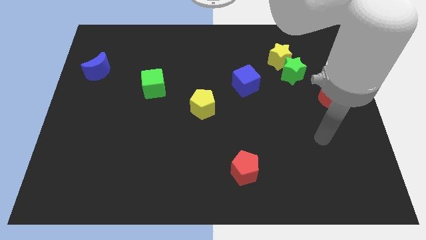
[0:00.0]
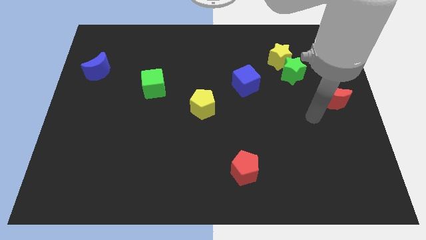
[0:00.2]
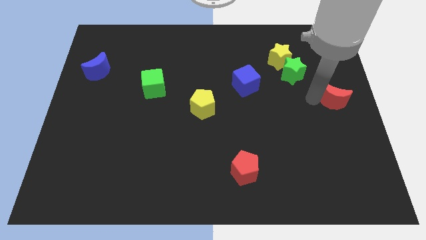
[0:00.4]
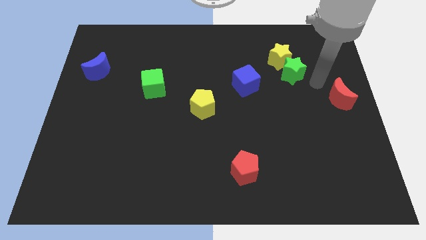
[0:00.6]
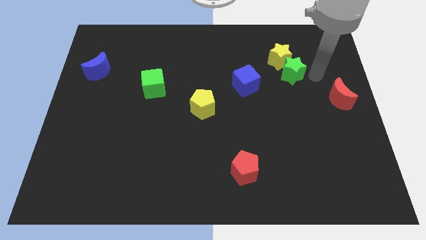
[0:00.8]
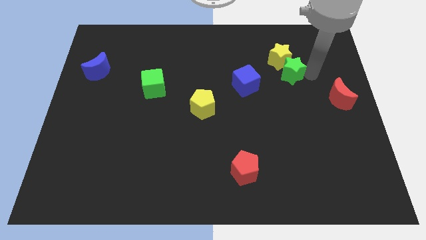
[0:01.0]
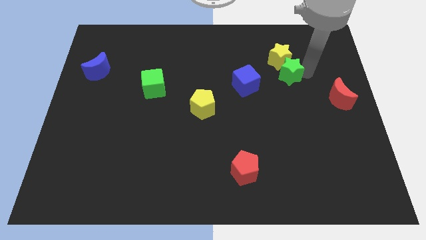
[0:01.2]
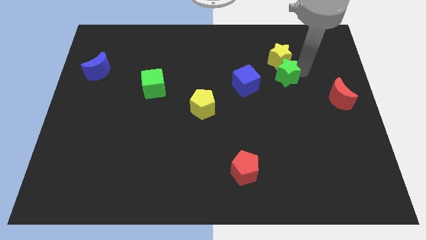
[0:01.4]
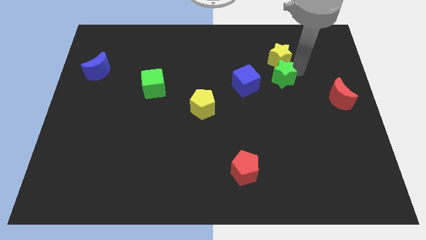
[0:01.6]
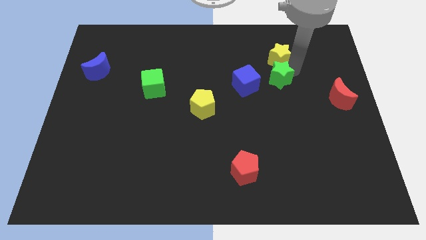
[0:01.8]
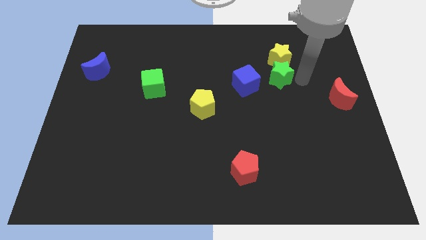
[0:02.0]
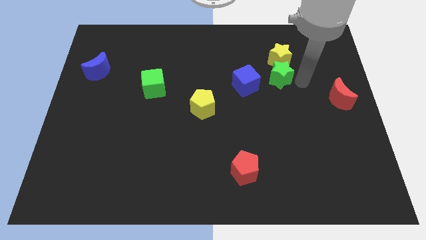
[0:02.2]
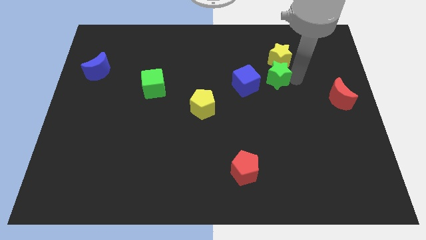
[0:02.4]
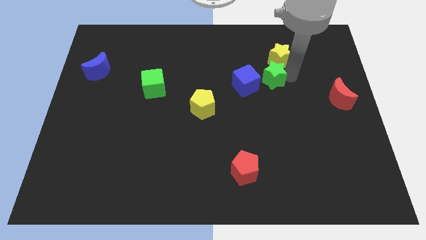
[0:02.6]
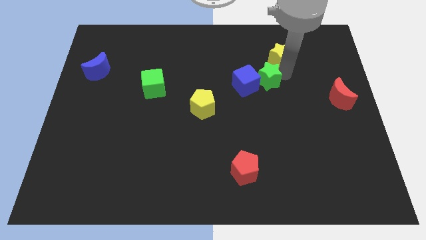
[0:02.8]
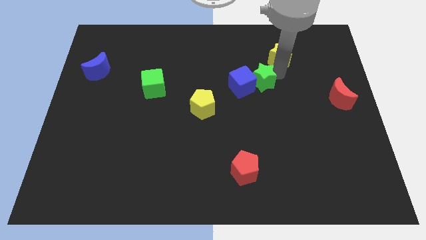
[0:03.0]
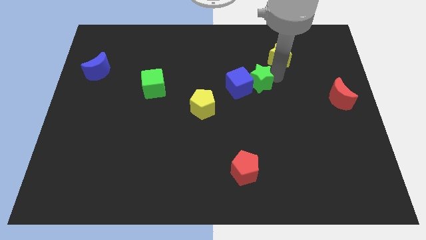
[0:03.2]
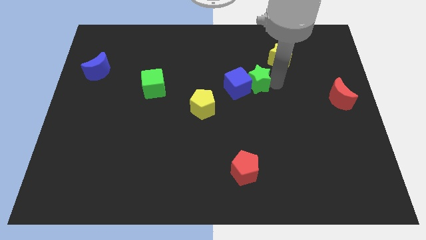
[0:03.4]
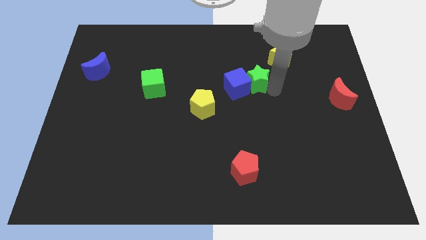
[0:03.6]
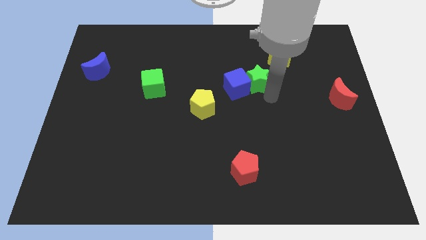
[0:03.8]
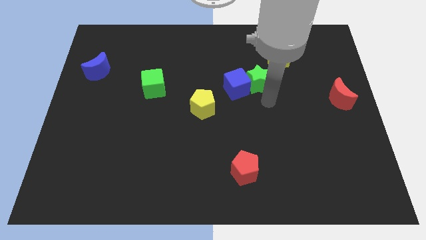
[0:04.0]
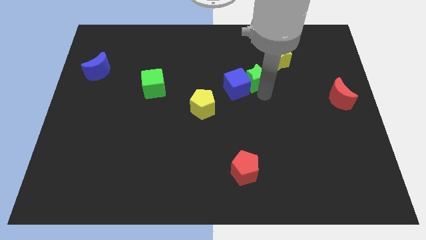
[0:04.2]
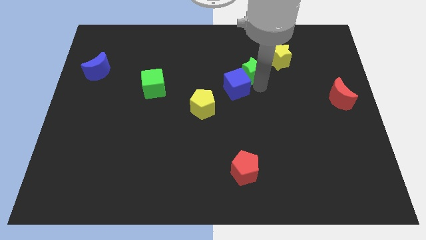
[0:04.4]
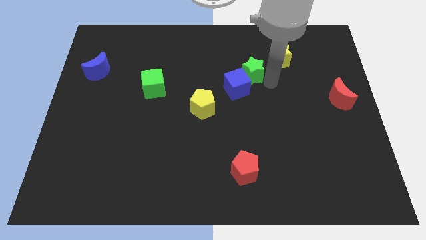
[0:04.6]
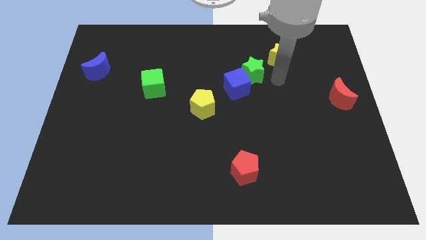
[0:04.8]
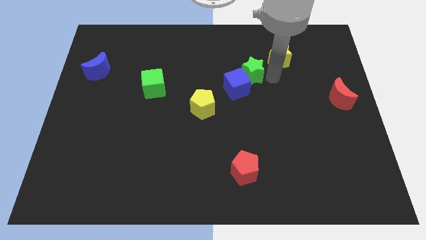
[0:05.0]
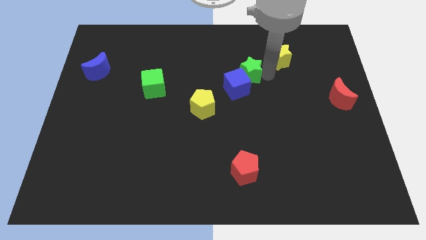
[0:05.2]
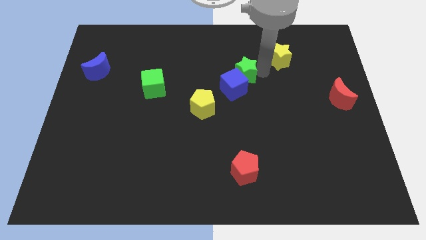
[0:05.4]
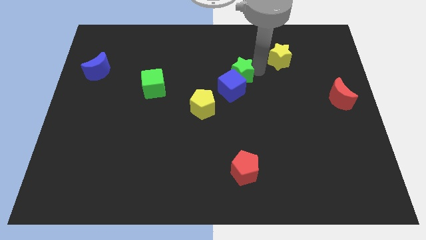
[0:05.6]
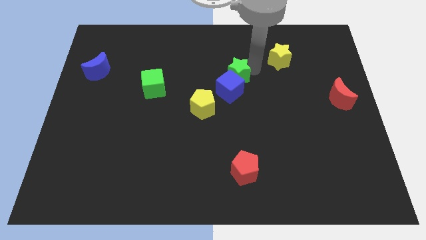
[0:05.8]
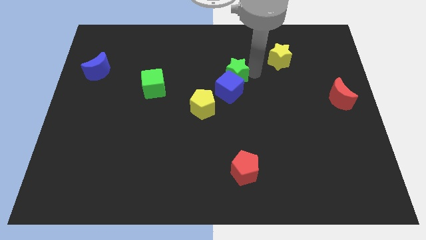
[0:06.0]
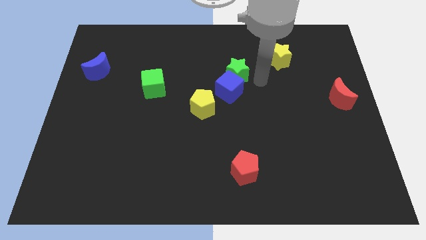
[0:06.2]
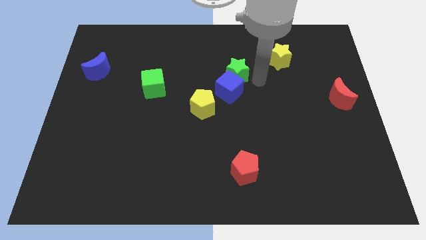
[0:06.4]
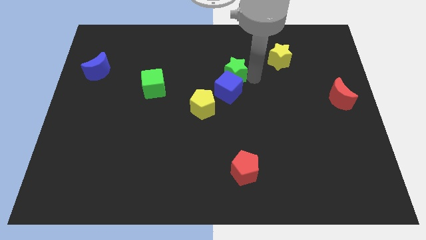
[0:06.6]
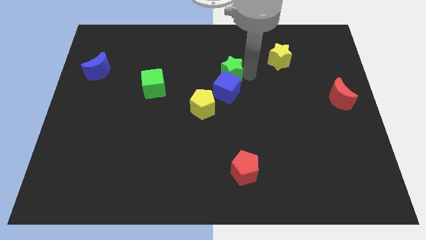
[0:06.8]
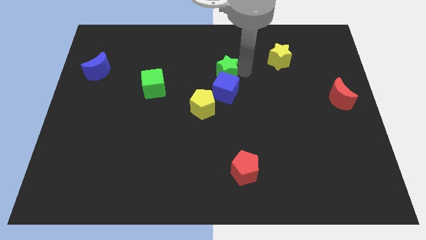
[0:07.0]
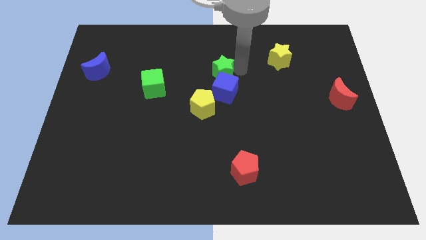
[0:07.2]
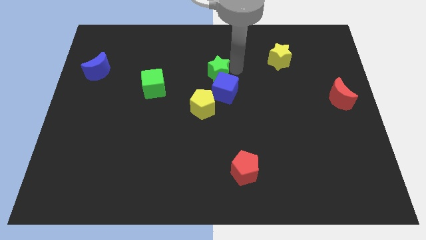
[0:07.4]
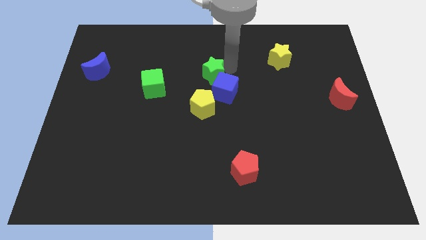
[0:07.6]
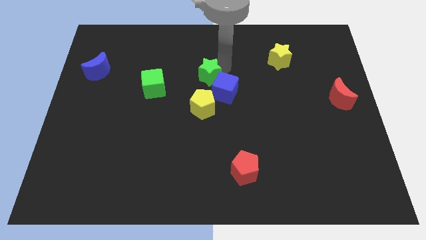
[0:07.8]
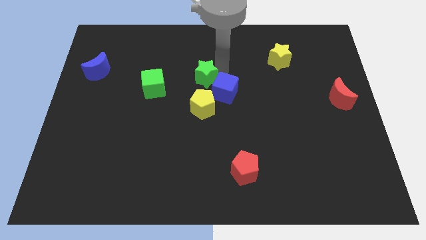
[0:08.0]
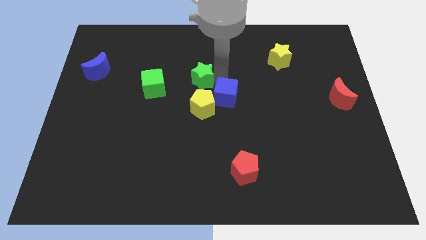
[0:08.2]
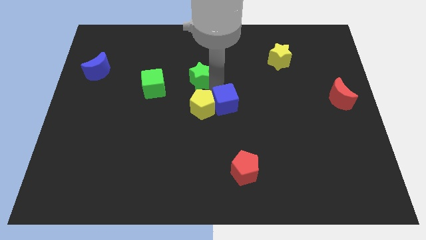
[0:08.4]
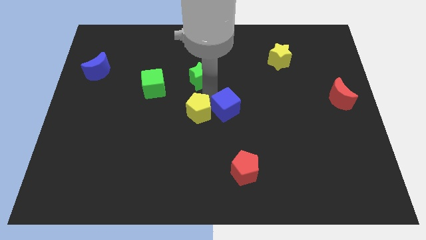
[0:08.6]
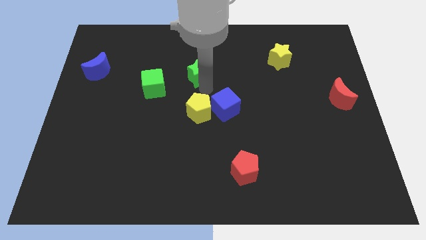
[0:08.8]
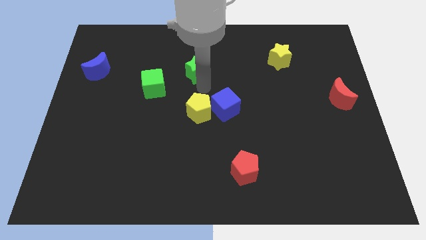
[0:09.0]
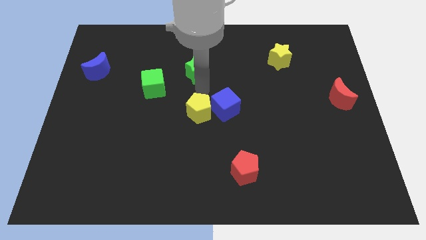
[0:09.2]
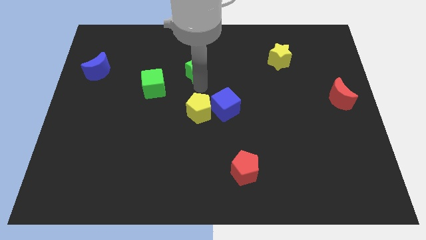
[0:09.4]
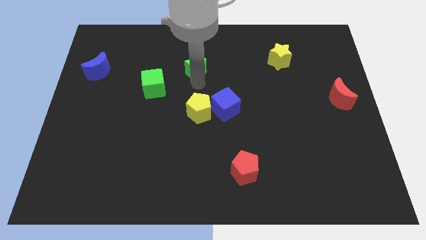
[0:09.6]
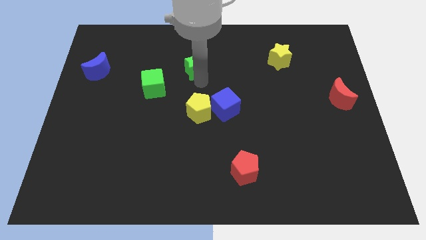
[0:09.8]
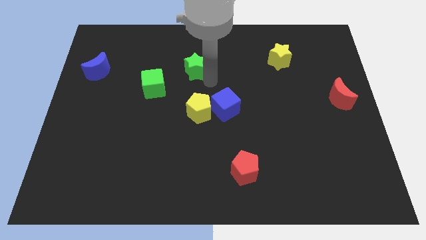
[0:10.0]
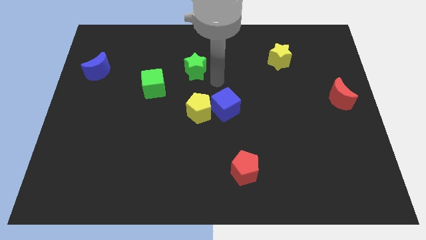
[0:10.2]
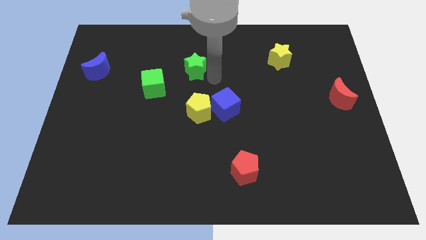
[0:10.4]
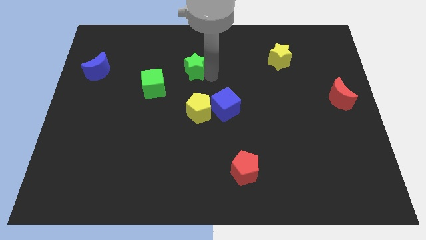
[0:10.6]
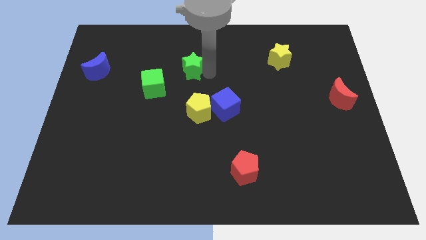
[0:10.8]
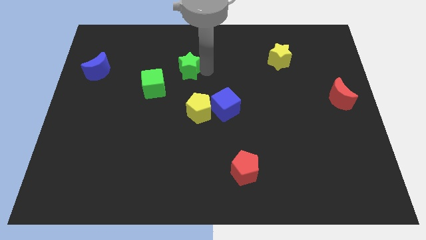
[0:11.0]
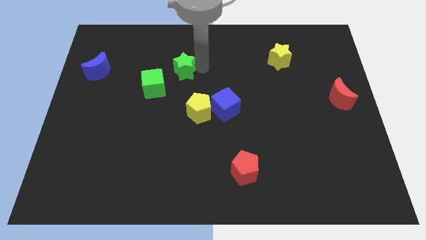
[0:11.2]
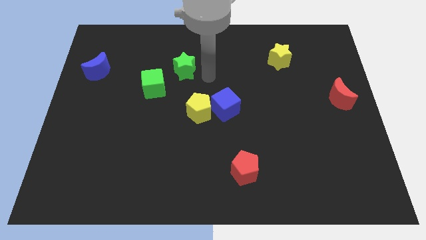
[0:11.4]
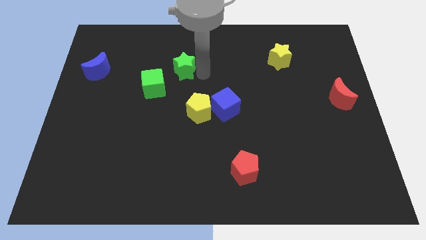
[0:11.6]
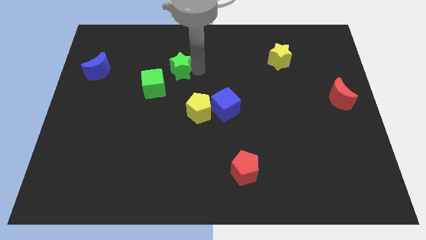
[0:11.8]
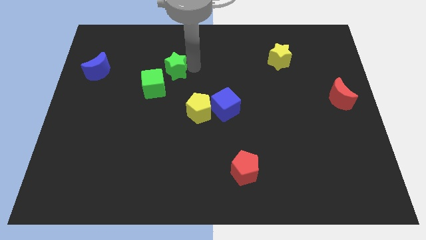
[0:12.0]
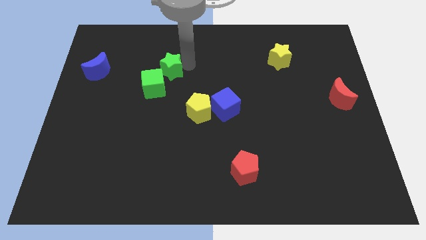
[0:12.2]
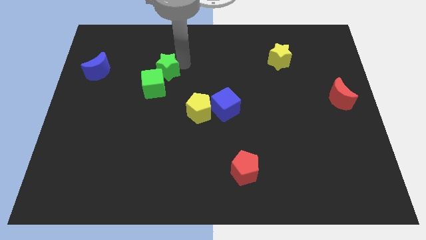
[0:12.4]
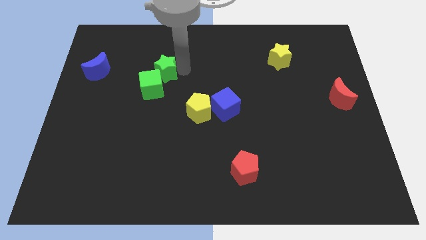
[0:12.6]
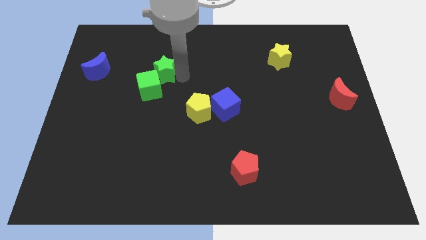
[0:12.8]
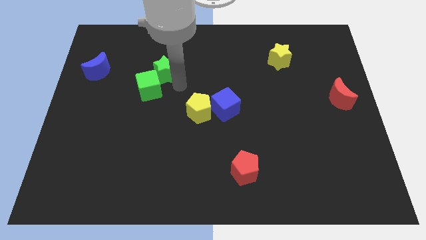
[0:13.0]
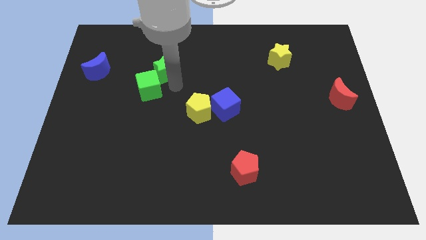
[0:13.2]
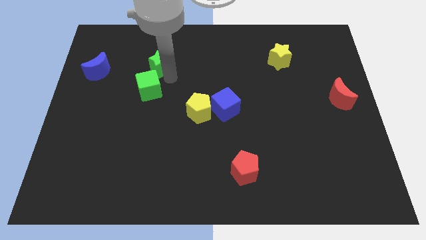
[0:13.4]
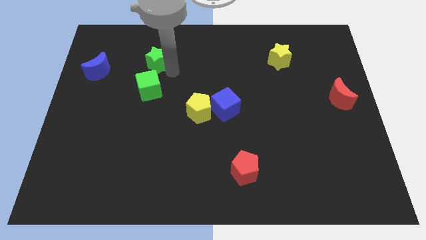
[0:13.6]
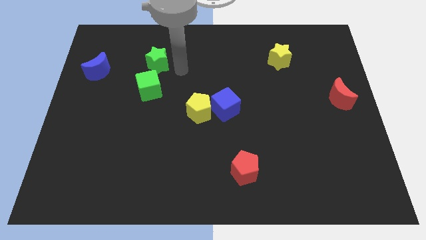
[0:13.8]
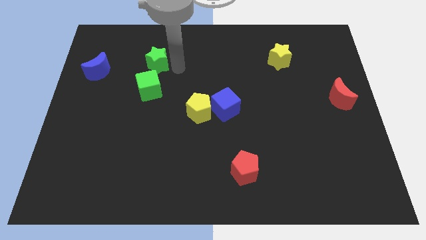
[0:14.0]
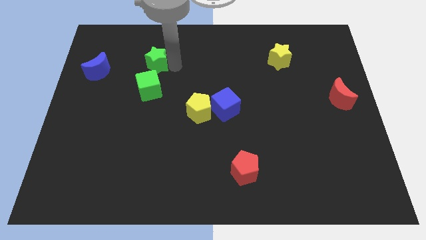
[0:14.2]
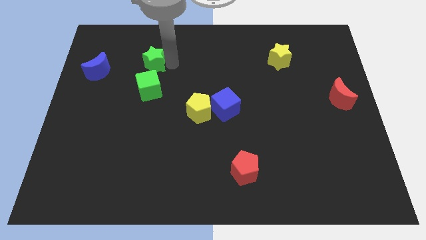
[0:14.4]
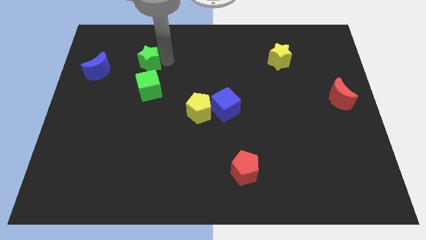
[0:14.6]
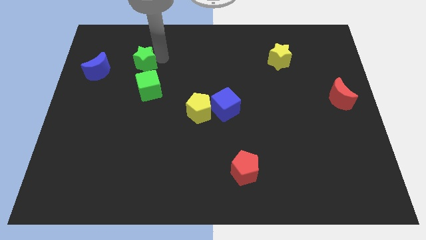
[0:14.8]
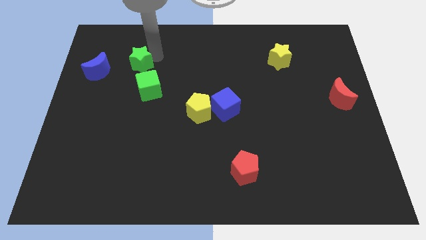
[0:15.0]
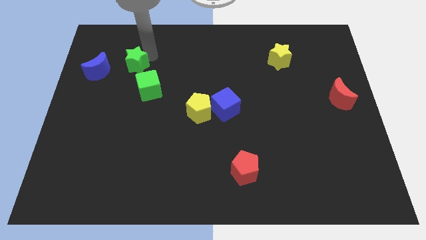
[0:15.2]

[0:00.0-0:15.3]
slide the green star to the top right side of the blue moon
